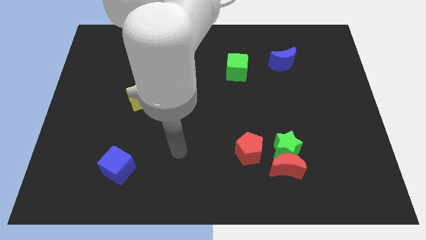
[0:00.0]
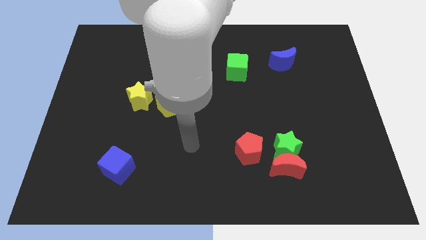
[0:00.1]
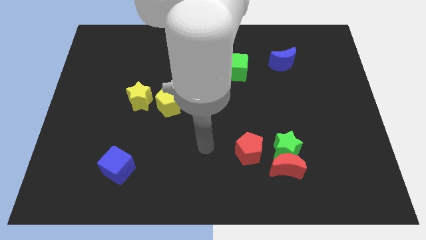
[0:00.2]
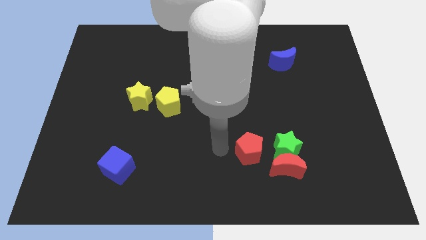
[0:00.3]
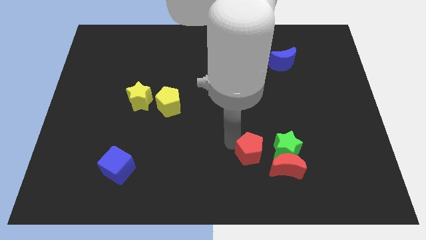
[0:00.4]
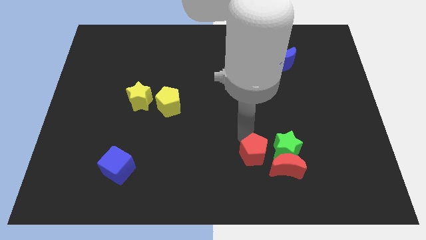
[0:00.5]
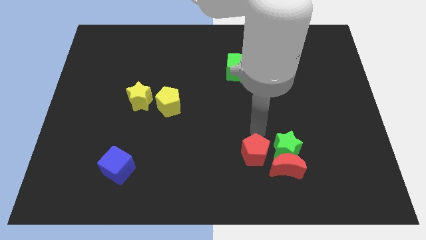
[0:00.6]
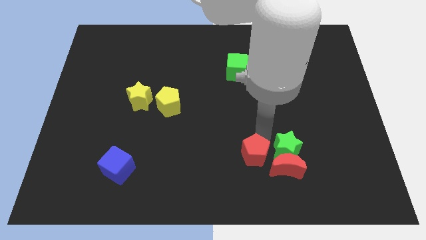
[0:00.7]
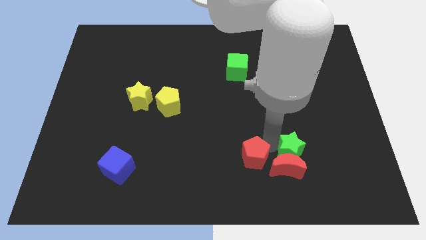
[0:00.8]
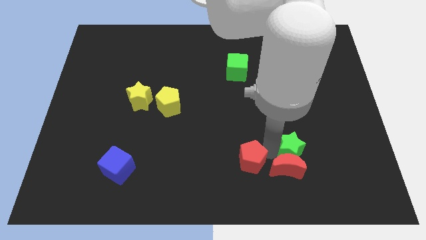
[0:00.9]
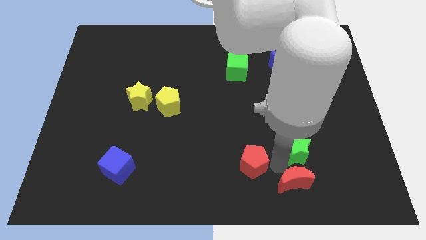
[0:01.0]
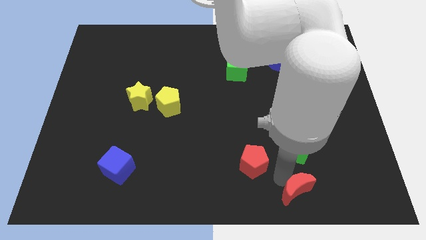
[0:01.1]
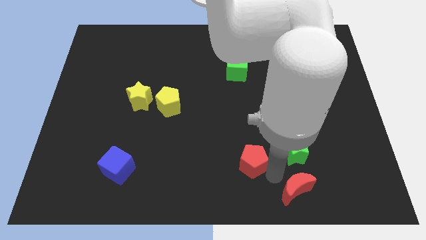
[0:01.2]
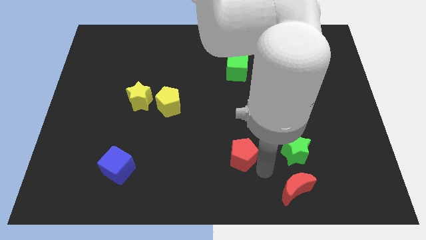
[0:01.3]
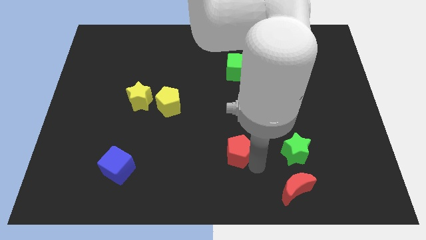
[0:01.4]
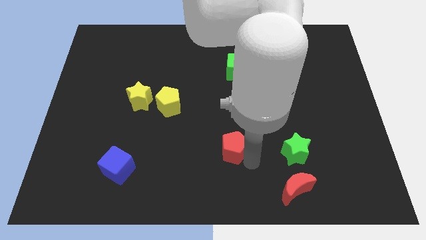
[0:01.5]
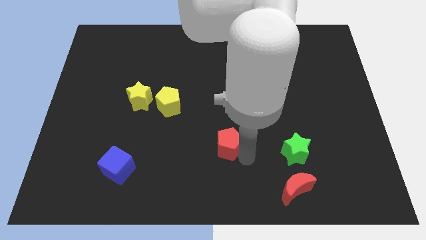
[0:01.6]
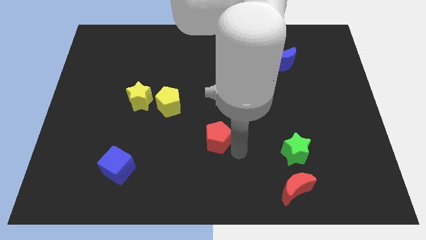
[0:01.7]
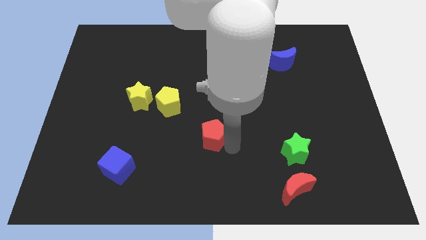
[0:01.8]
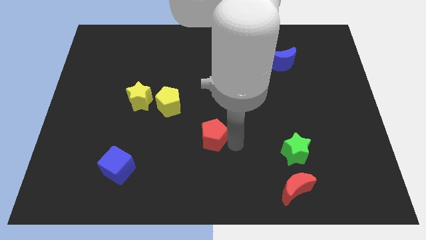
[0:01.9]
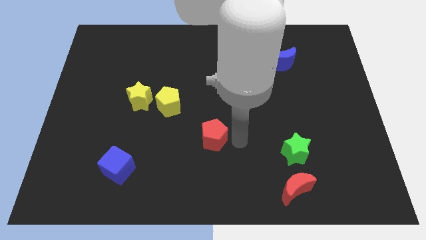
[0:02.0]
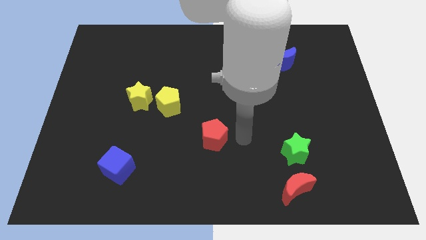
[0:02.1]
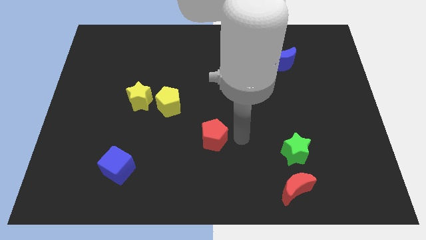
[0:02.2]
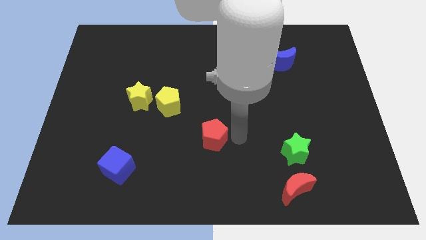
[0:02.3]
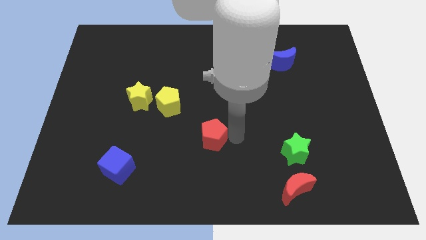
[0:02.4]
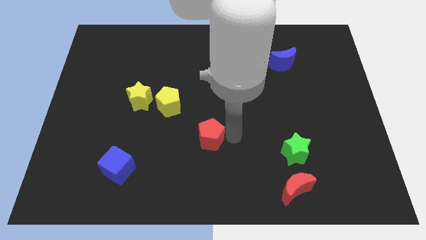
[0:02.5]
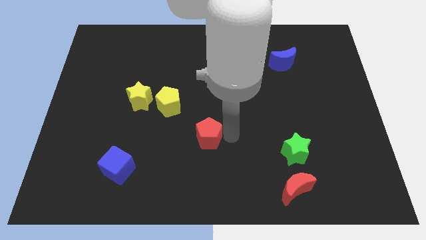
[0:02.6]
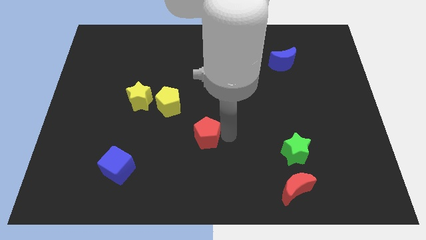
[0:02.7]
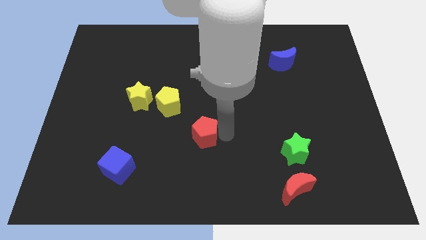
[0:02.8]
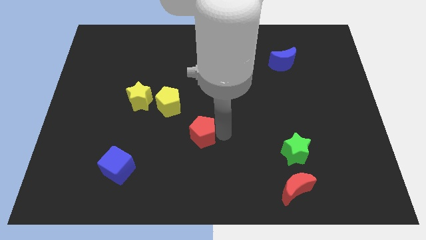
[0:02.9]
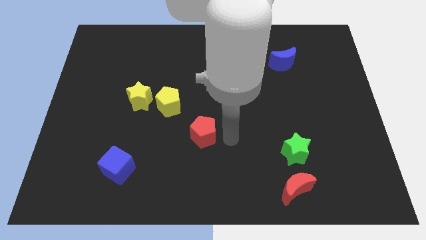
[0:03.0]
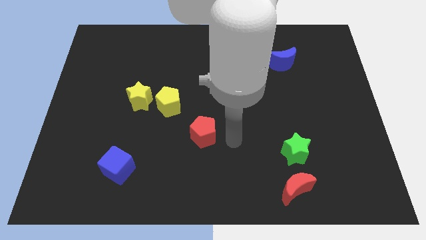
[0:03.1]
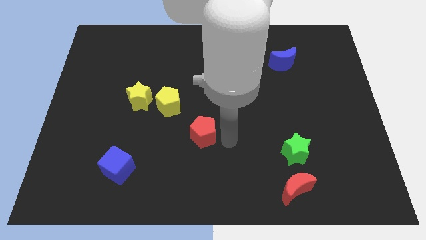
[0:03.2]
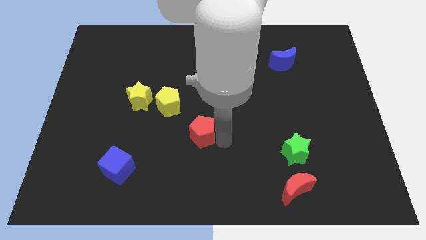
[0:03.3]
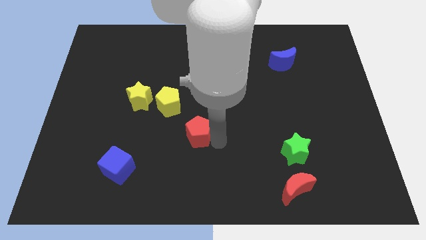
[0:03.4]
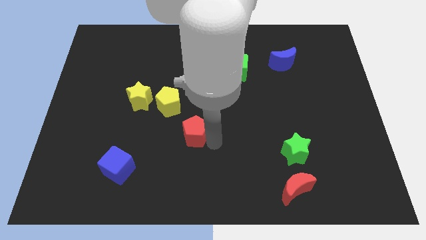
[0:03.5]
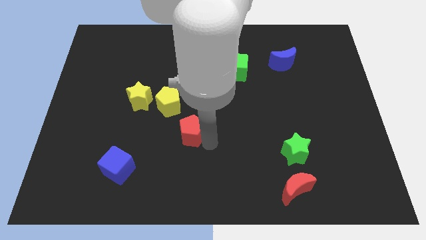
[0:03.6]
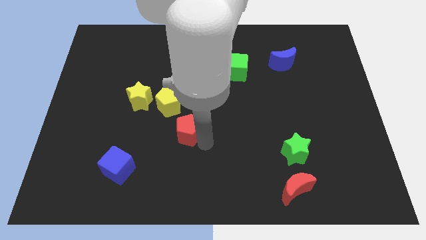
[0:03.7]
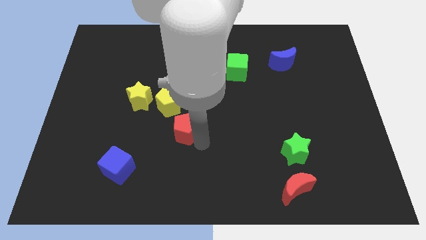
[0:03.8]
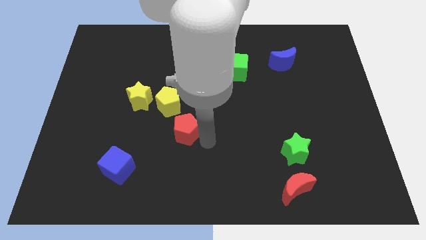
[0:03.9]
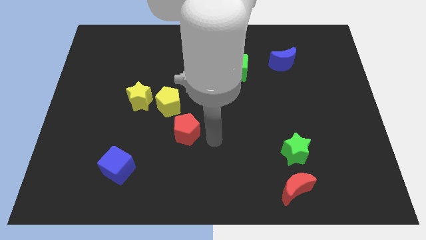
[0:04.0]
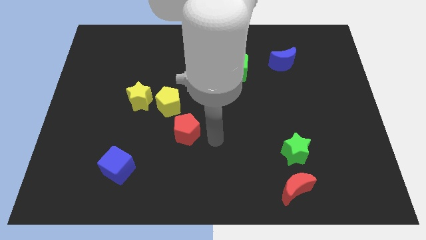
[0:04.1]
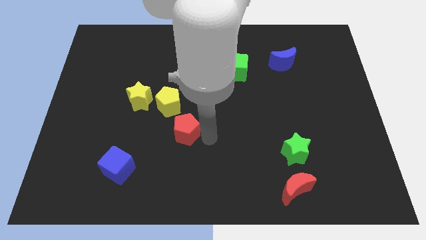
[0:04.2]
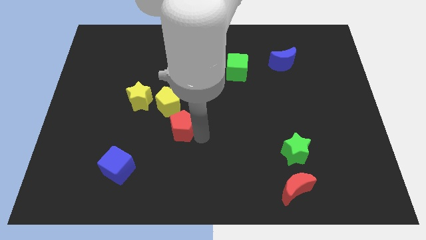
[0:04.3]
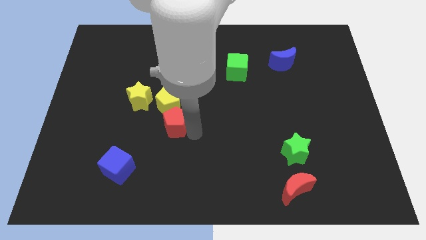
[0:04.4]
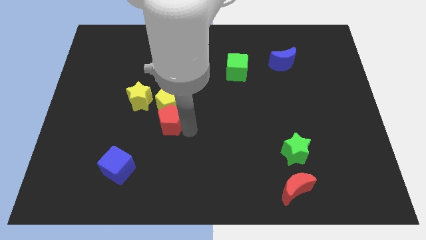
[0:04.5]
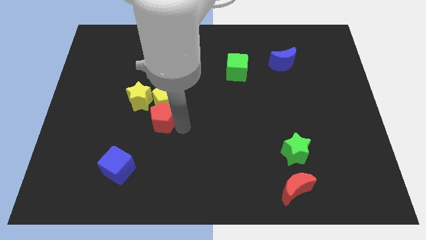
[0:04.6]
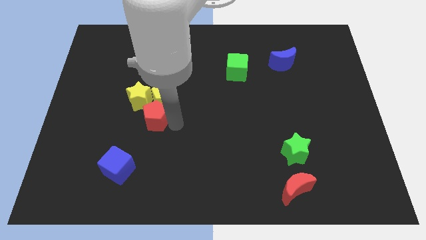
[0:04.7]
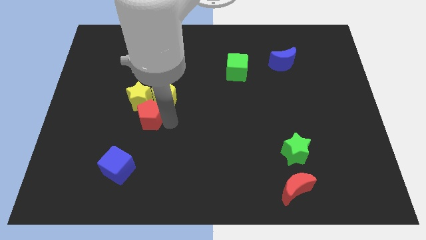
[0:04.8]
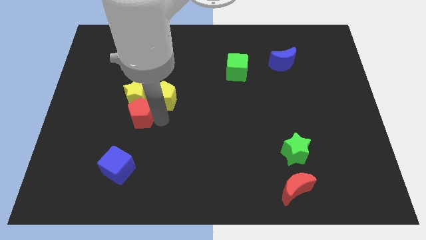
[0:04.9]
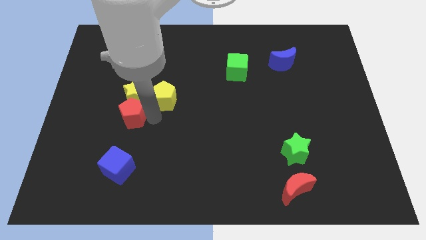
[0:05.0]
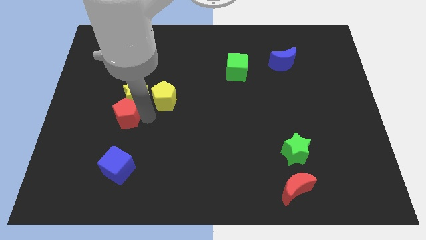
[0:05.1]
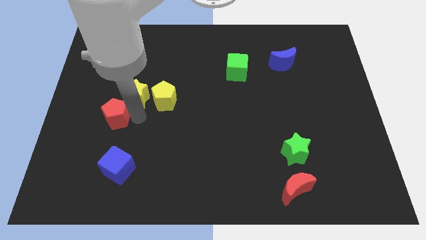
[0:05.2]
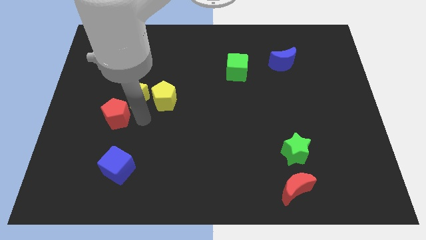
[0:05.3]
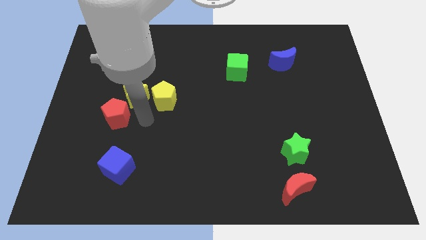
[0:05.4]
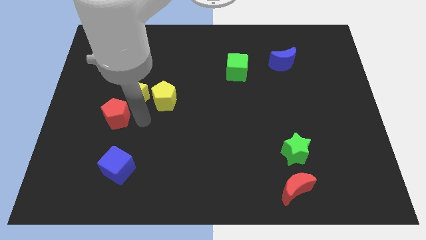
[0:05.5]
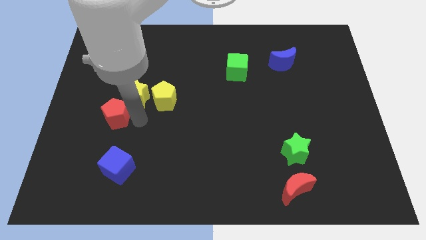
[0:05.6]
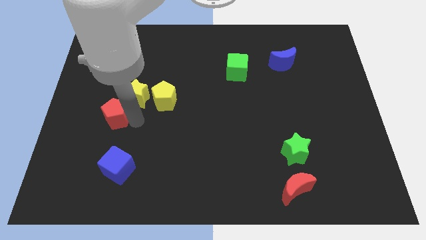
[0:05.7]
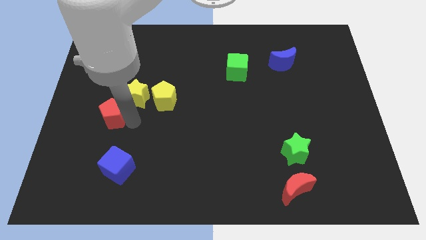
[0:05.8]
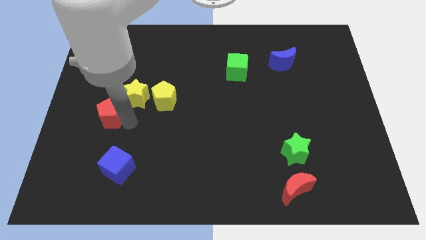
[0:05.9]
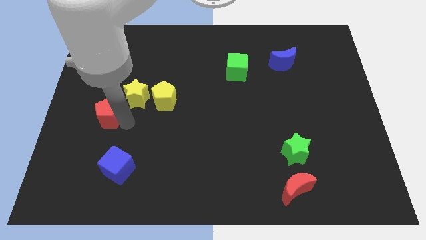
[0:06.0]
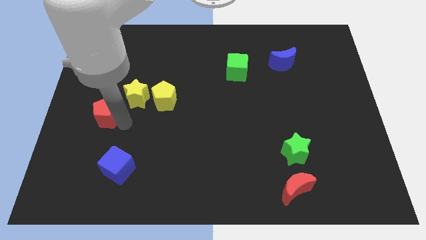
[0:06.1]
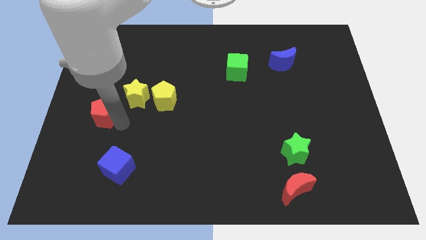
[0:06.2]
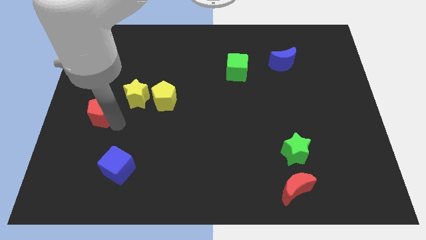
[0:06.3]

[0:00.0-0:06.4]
move the red pentagon to the left side
